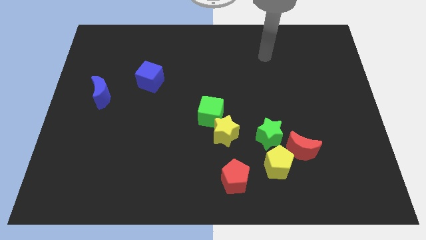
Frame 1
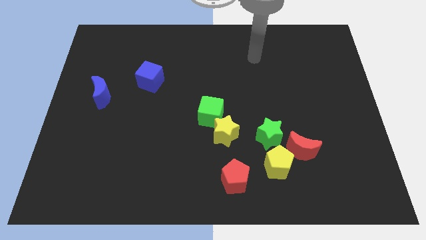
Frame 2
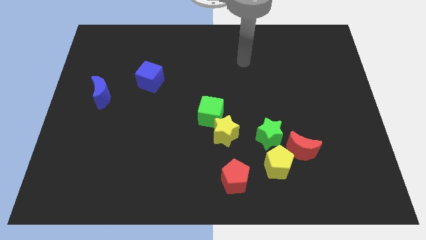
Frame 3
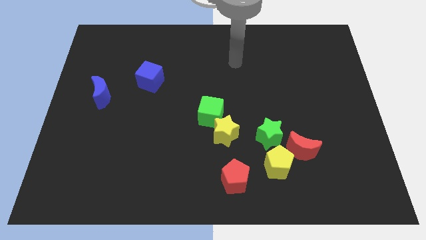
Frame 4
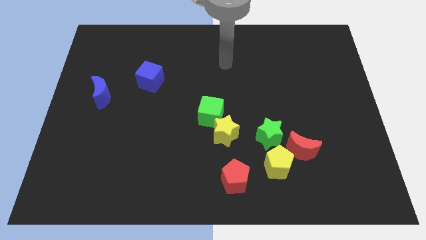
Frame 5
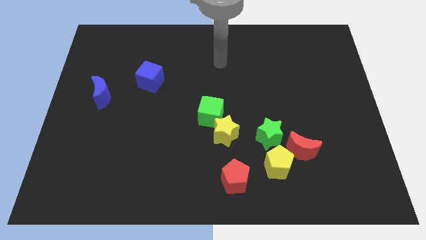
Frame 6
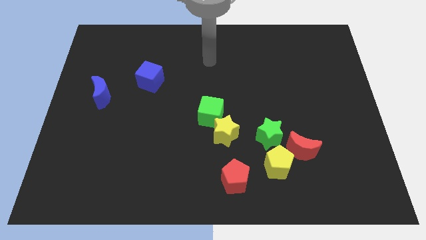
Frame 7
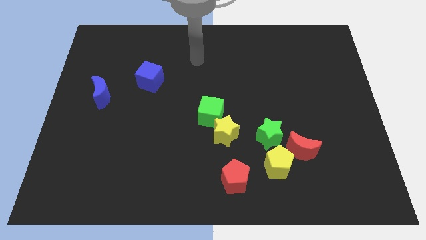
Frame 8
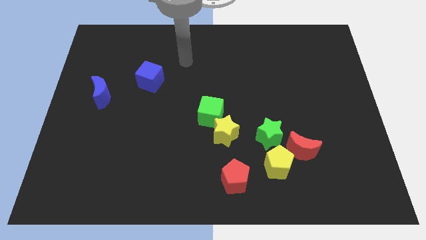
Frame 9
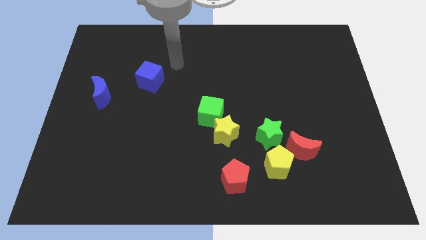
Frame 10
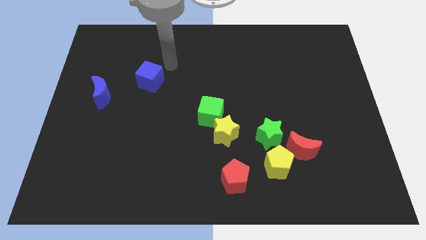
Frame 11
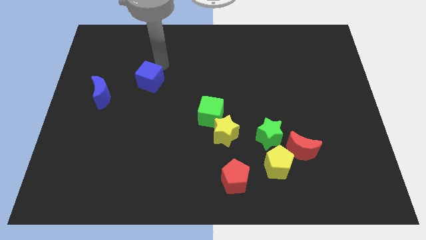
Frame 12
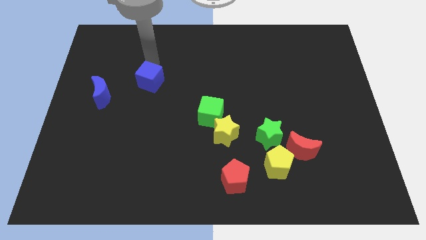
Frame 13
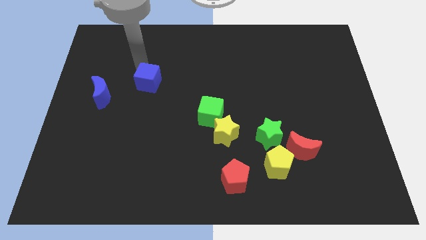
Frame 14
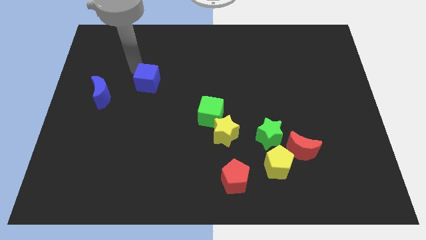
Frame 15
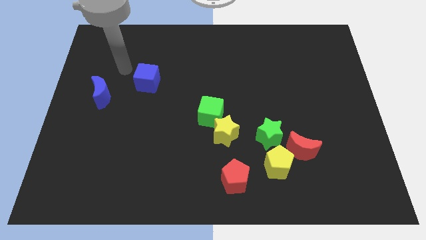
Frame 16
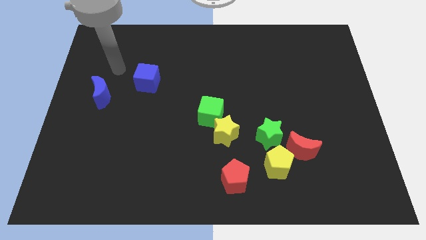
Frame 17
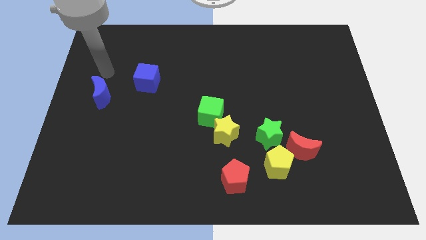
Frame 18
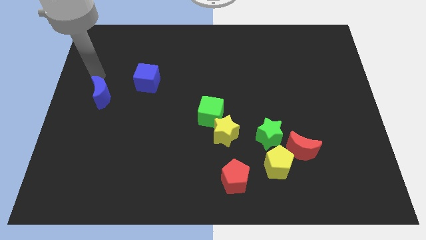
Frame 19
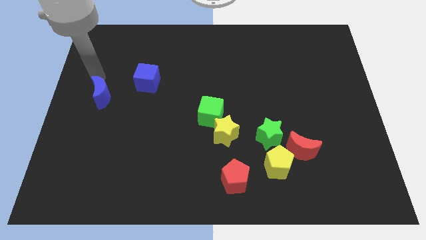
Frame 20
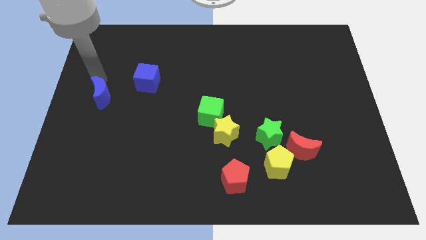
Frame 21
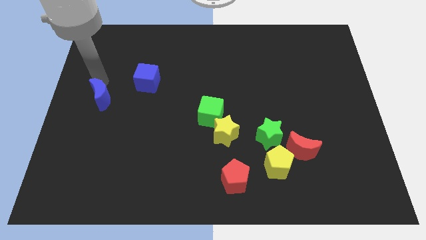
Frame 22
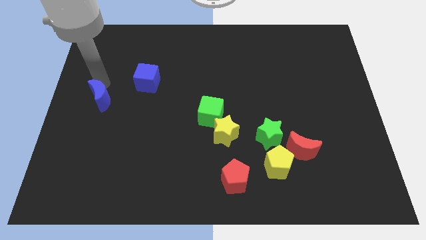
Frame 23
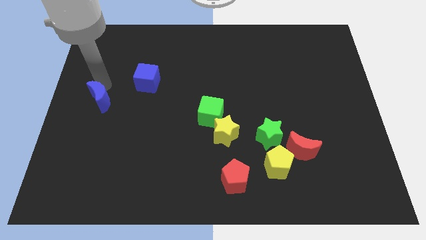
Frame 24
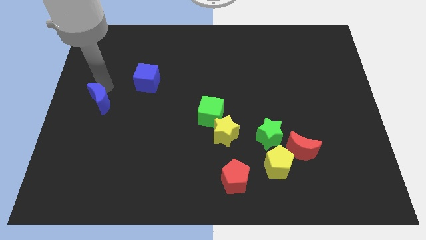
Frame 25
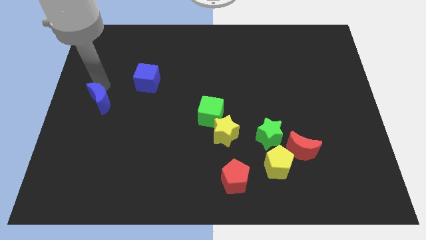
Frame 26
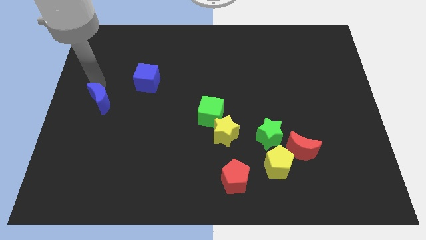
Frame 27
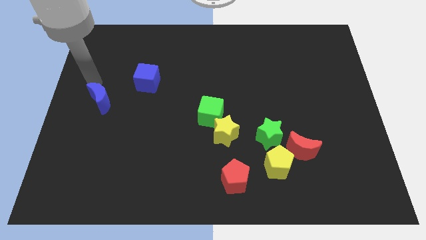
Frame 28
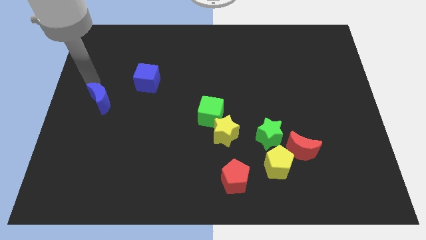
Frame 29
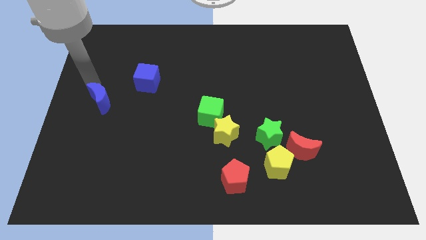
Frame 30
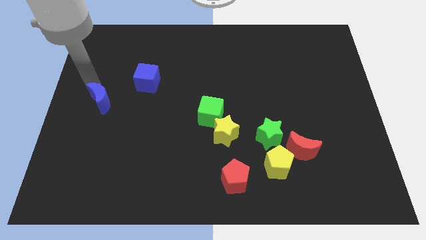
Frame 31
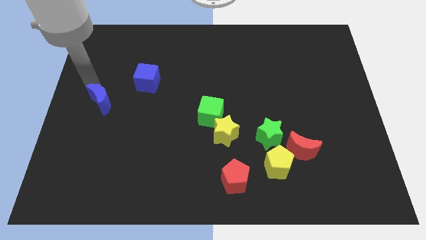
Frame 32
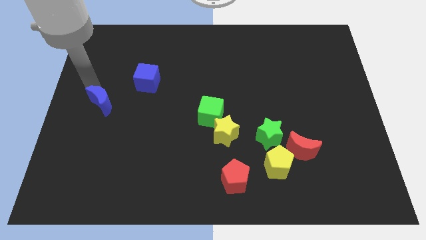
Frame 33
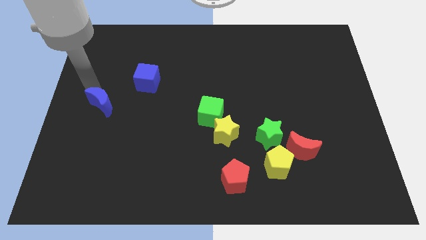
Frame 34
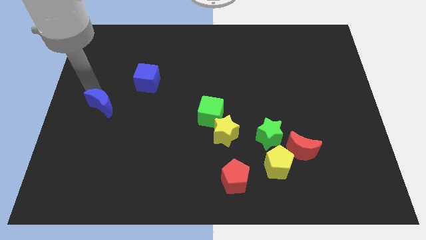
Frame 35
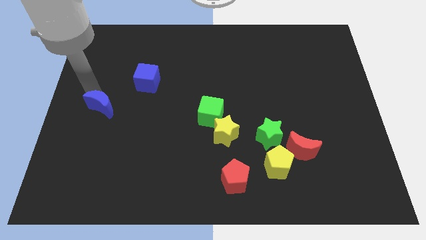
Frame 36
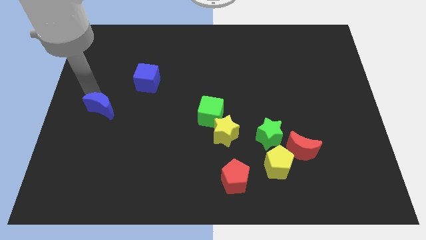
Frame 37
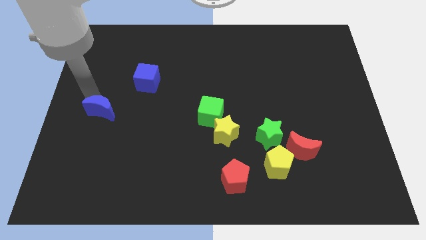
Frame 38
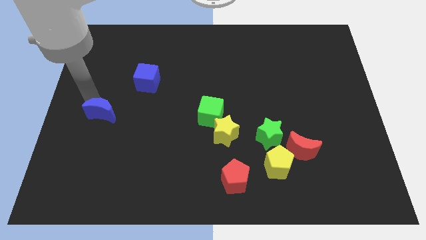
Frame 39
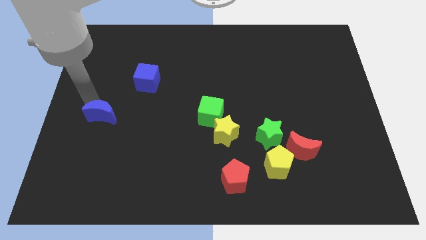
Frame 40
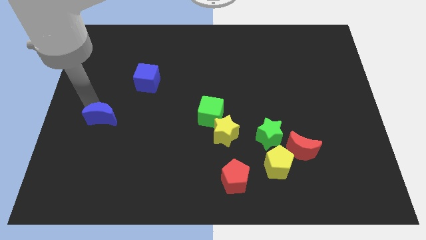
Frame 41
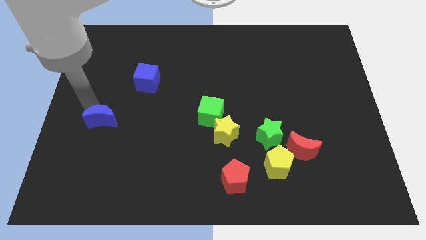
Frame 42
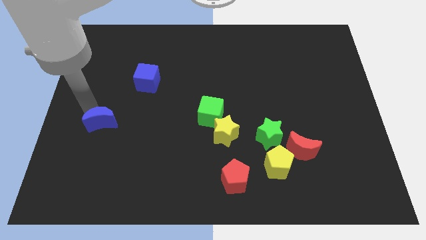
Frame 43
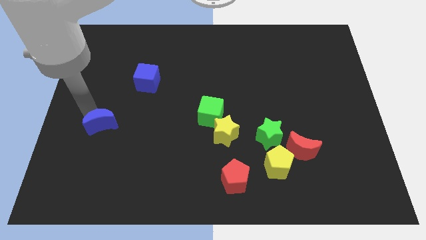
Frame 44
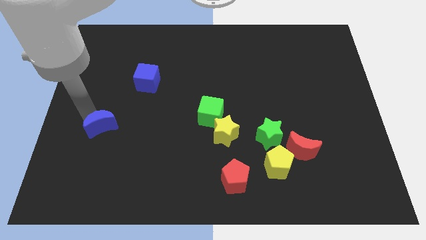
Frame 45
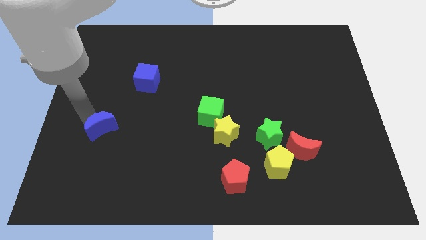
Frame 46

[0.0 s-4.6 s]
slightly push the blue moon diagonally downwards and to the right

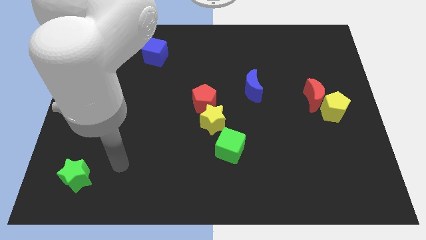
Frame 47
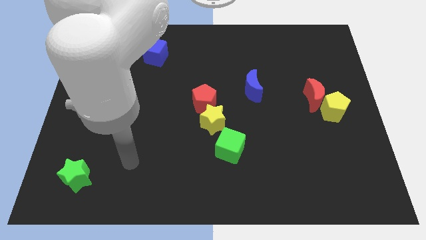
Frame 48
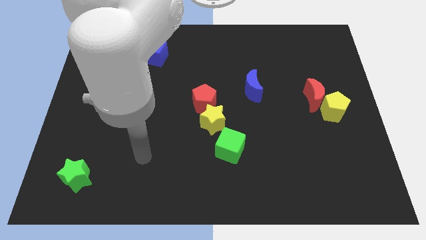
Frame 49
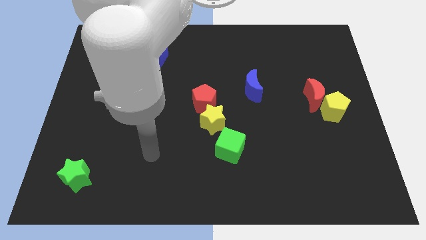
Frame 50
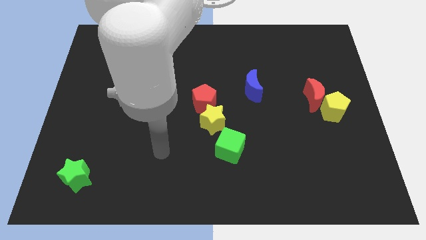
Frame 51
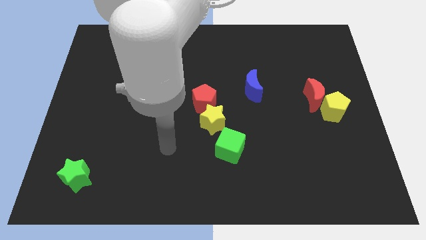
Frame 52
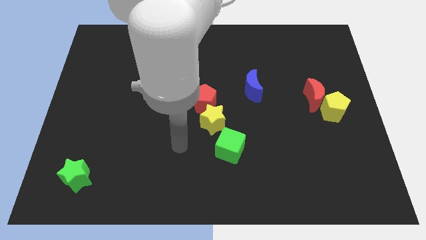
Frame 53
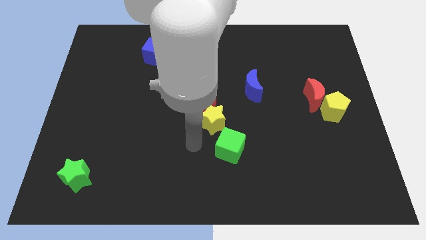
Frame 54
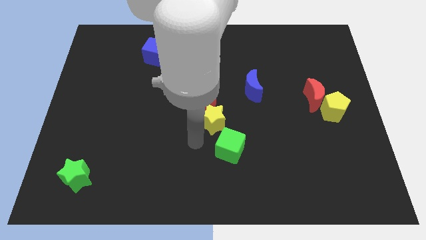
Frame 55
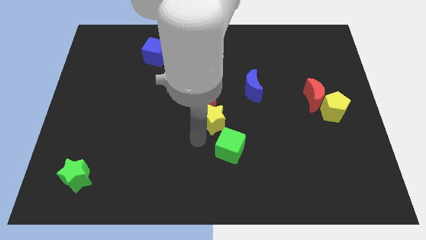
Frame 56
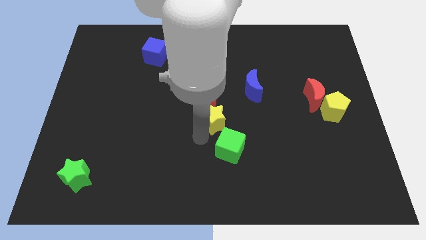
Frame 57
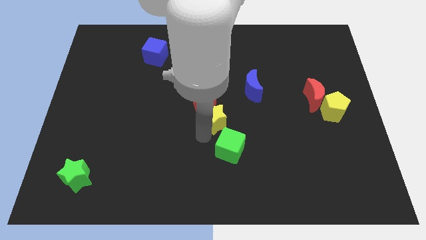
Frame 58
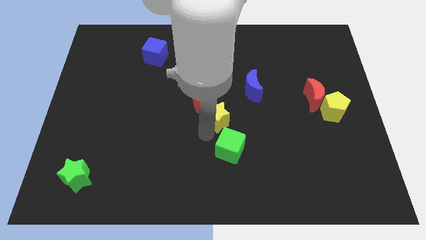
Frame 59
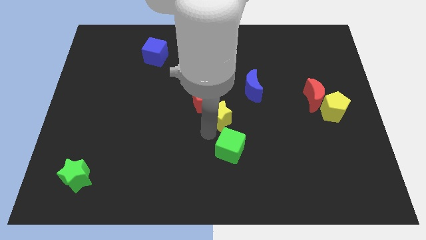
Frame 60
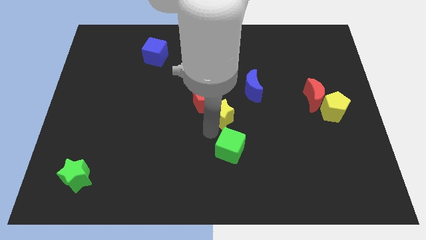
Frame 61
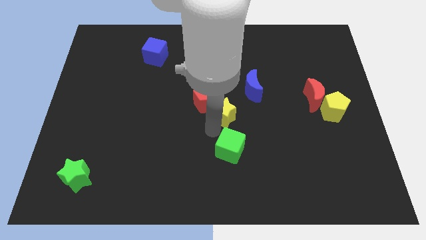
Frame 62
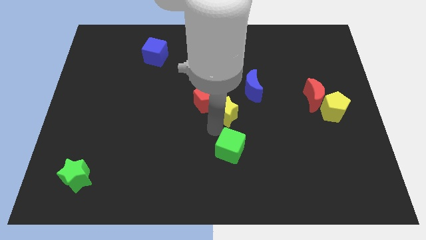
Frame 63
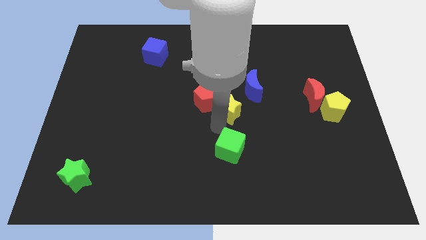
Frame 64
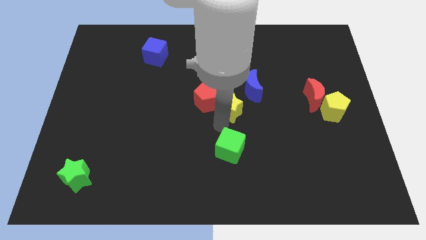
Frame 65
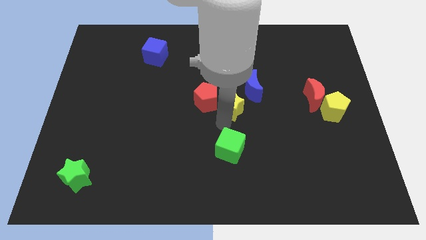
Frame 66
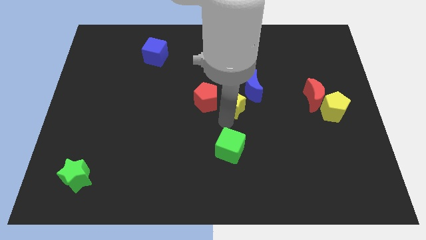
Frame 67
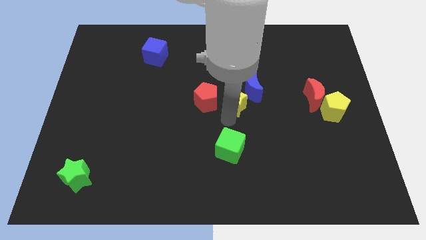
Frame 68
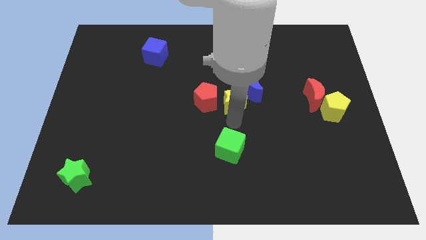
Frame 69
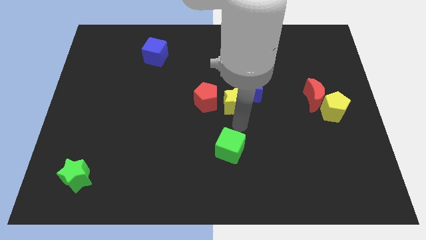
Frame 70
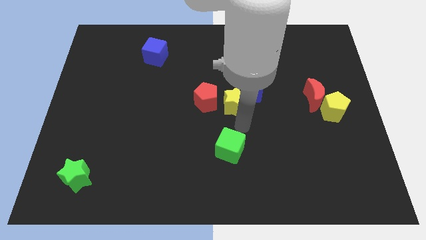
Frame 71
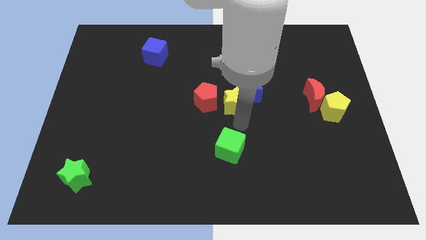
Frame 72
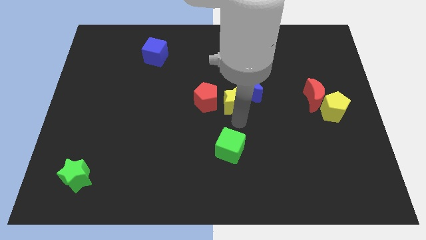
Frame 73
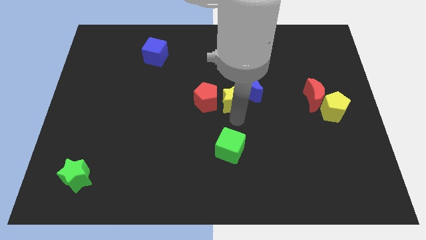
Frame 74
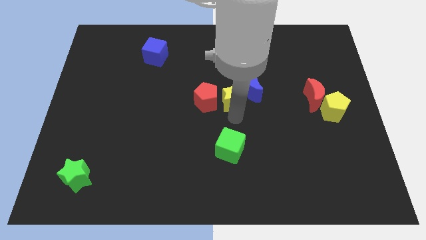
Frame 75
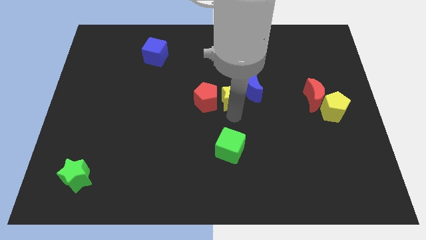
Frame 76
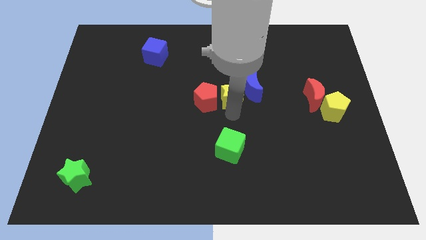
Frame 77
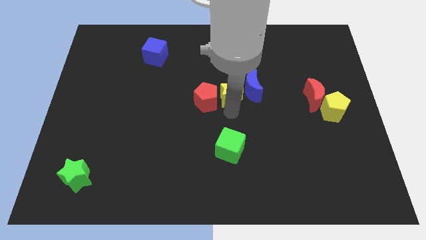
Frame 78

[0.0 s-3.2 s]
move the yellow star upwards a little
